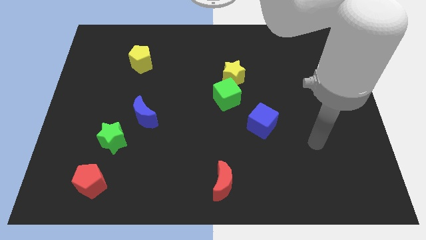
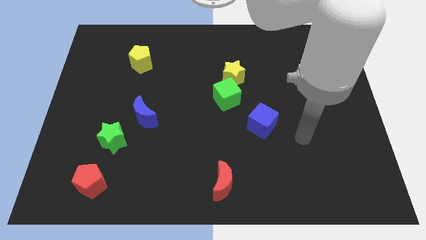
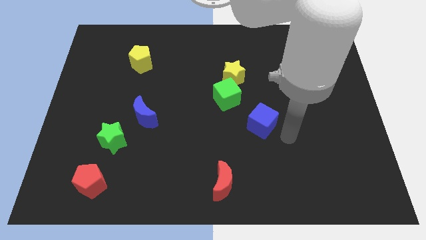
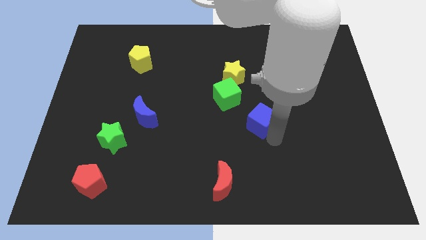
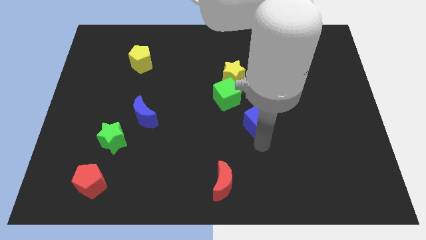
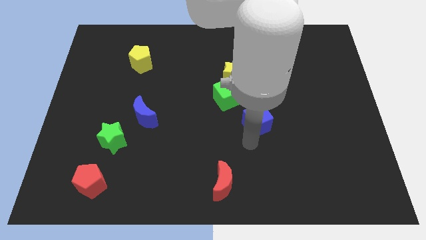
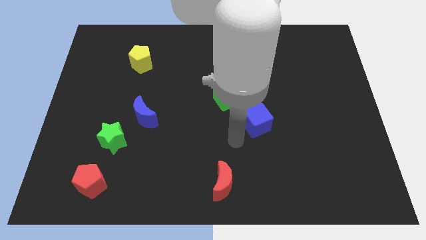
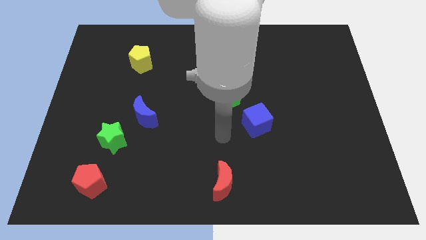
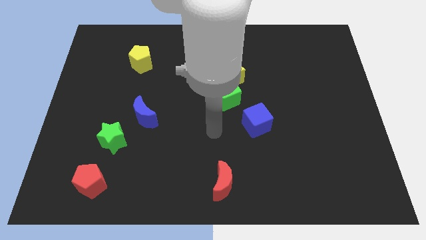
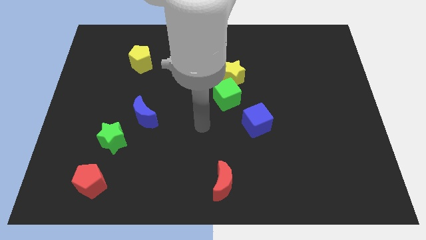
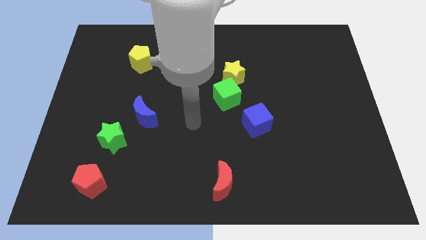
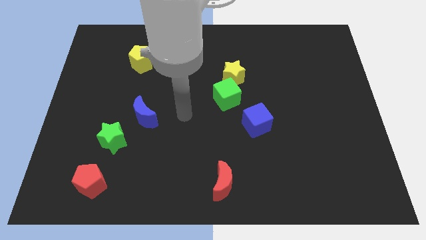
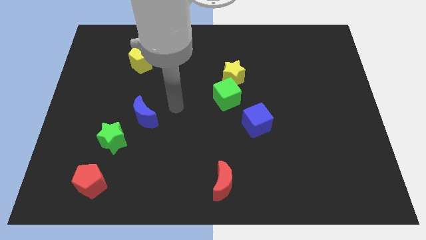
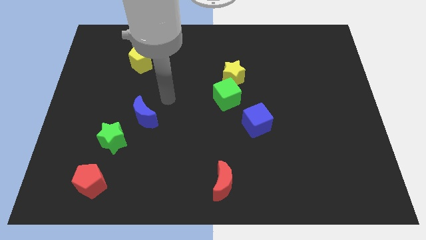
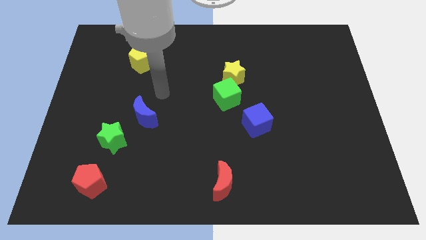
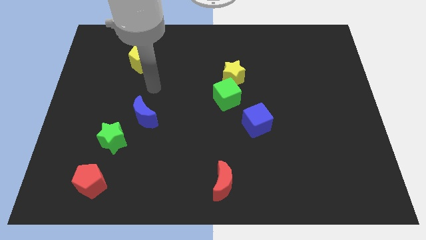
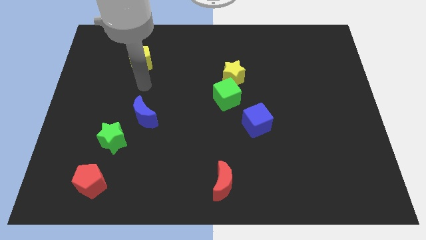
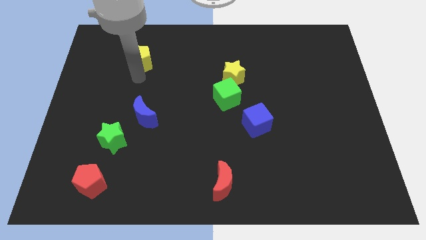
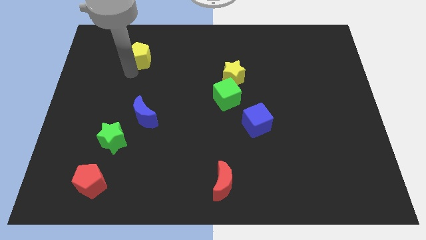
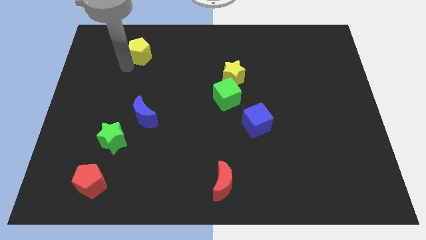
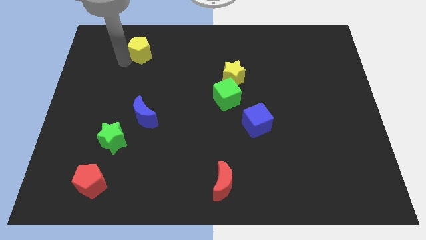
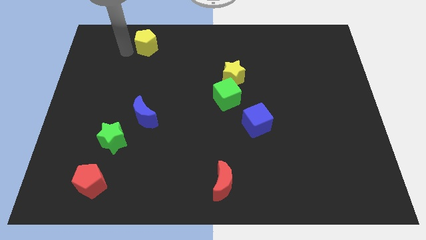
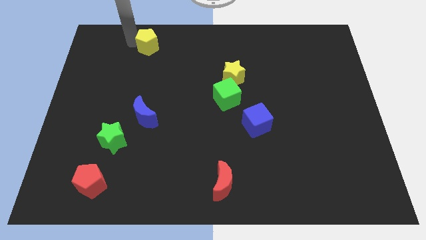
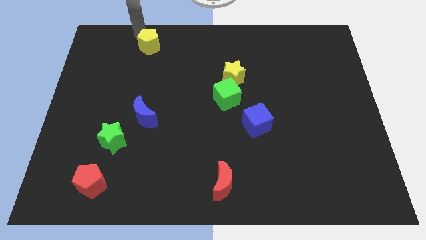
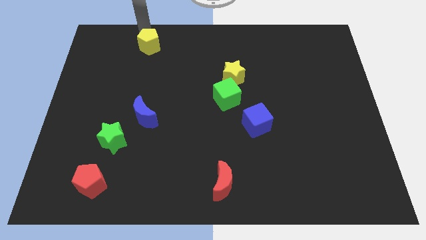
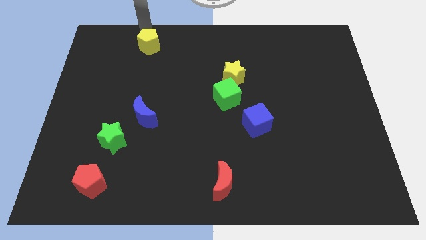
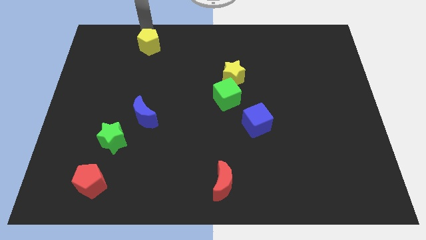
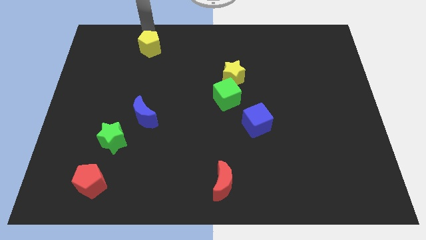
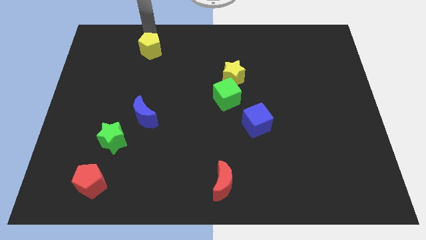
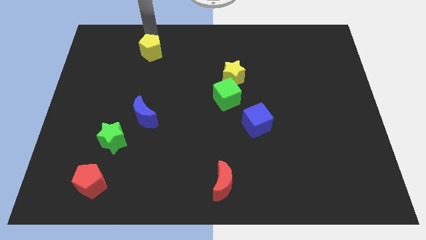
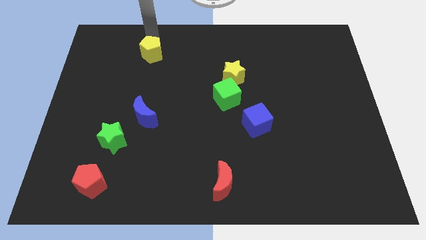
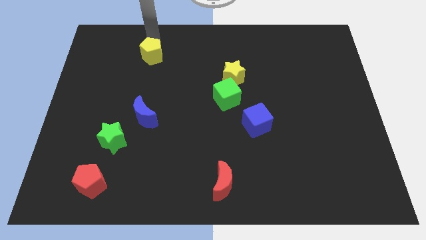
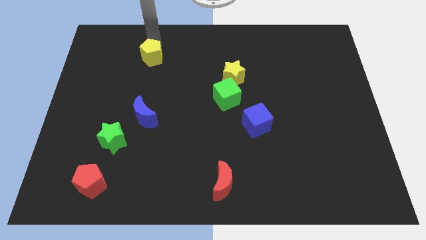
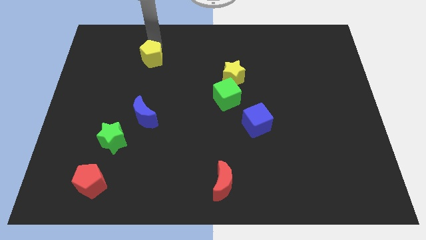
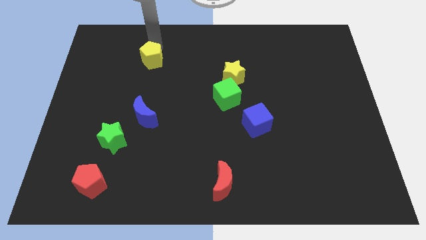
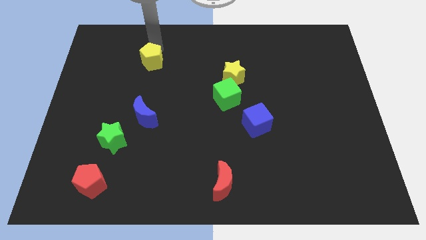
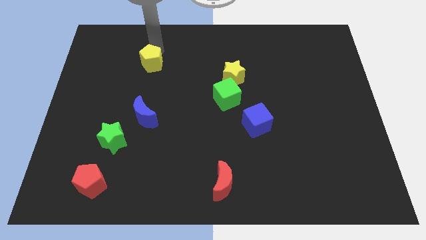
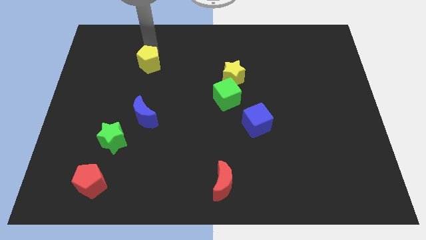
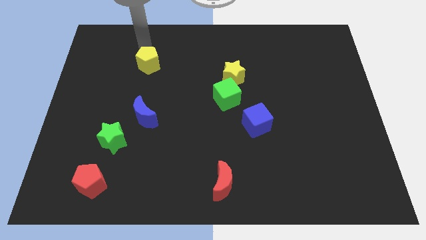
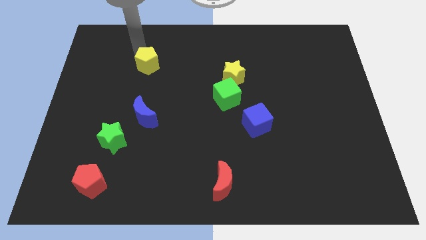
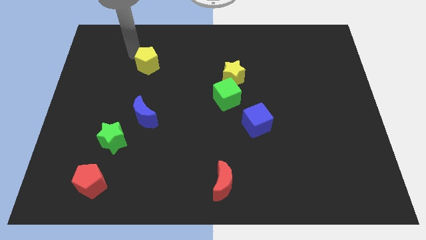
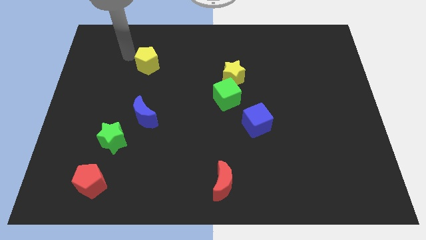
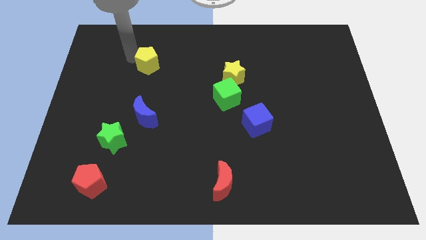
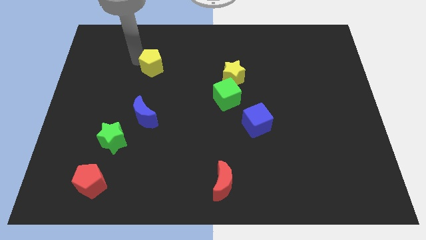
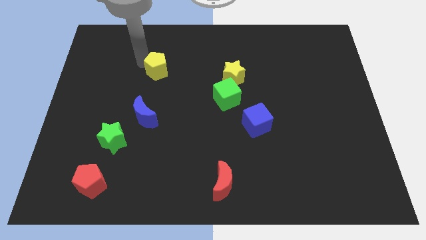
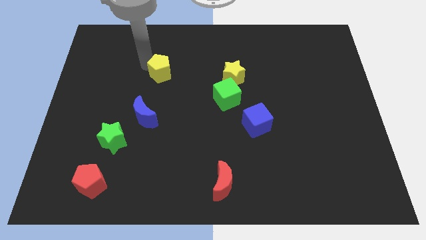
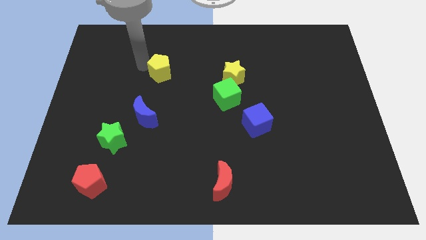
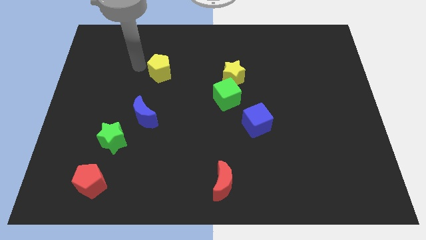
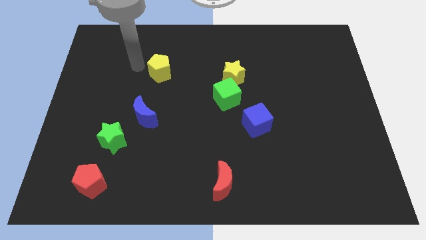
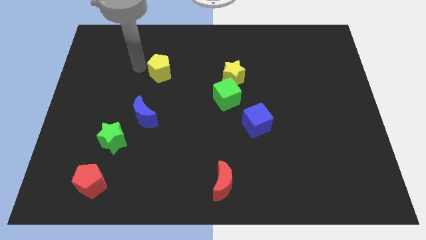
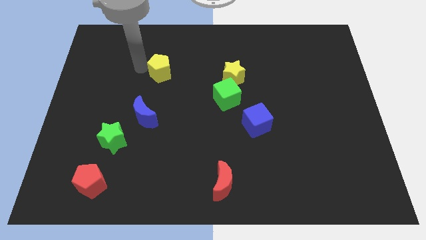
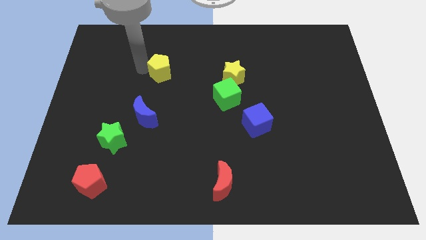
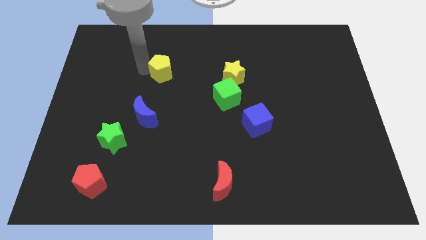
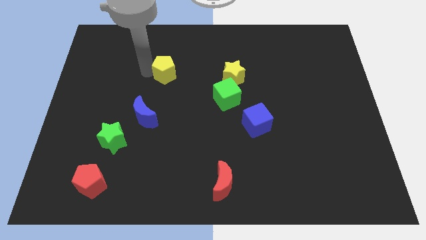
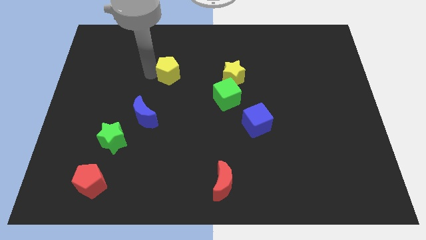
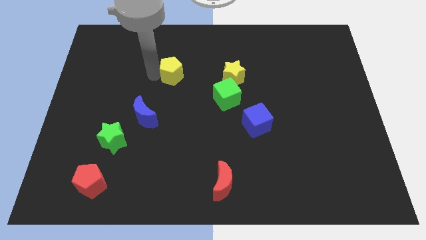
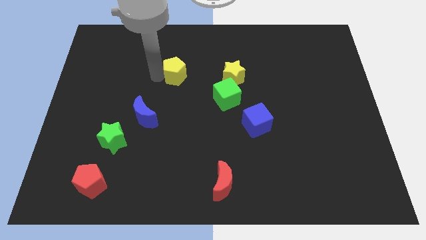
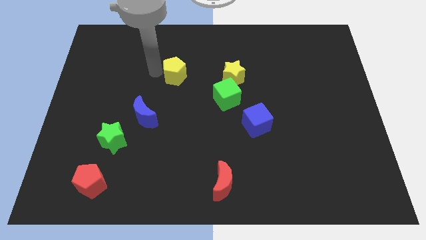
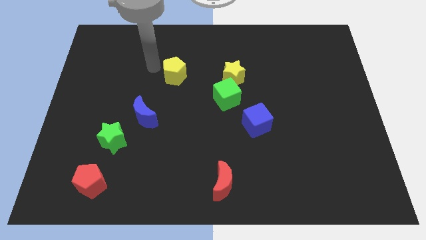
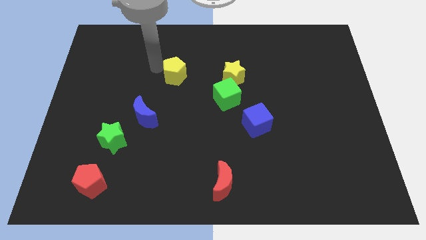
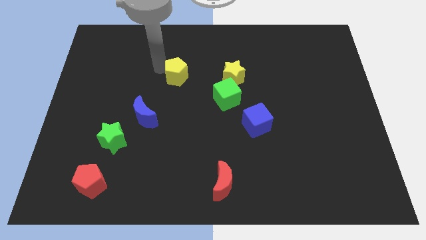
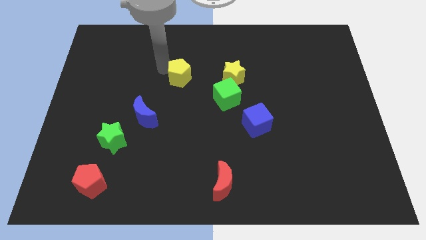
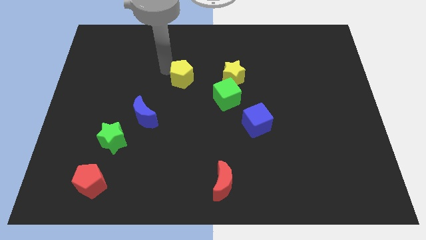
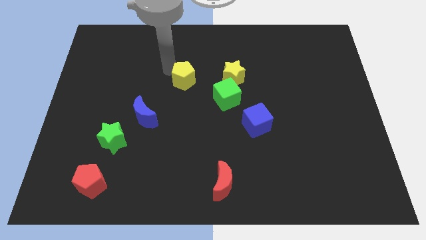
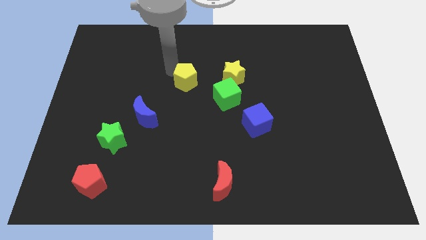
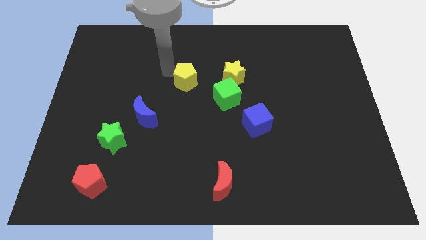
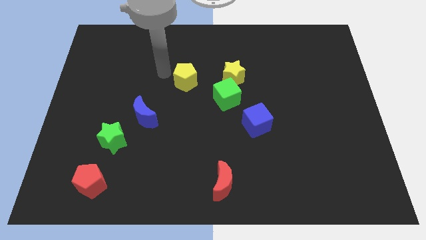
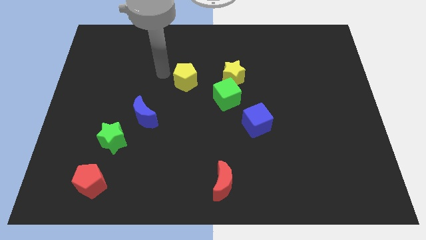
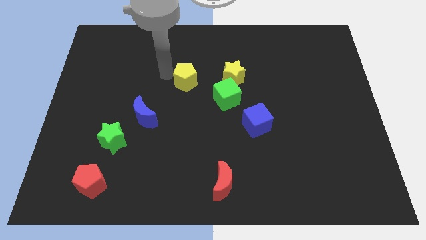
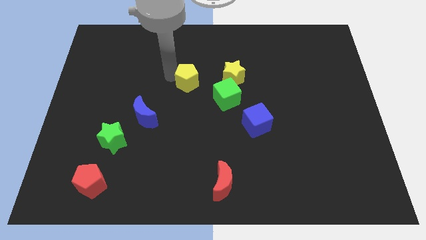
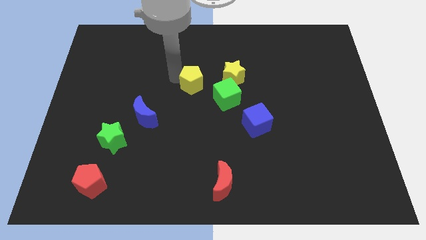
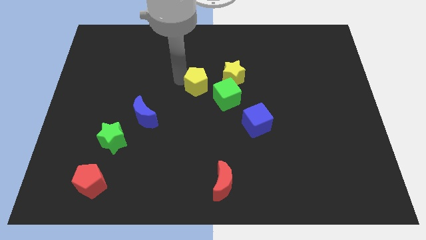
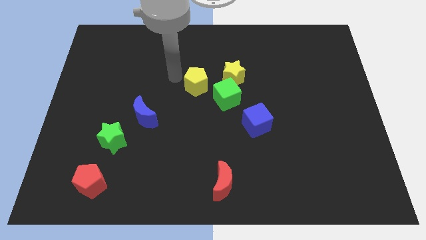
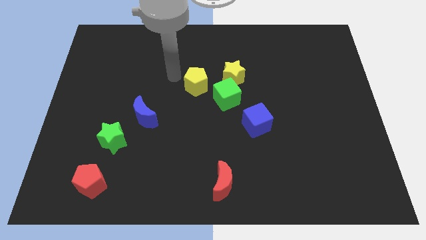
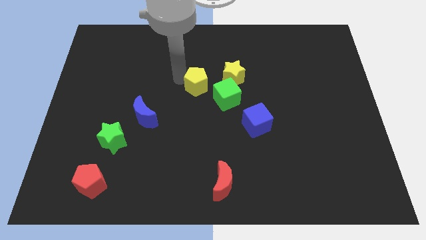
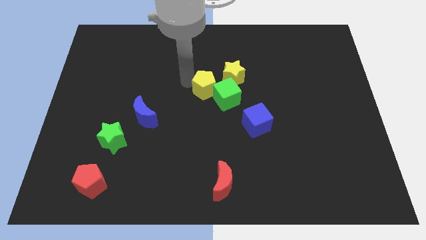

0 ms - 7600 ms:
move the yellow pentagon to the green cube
